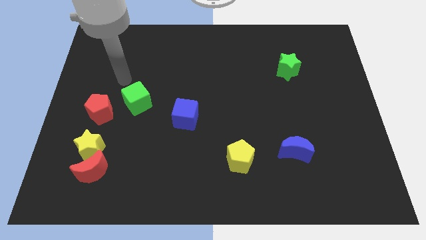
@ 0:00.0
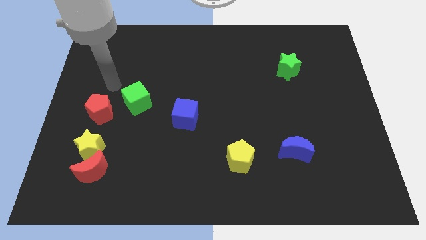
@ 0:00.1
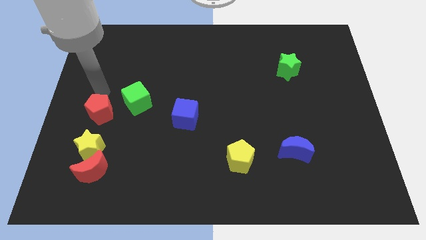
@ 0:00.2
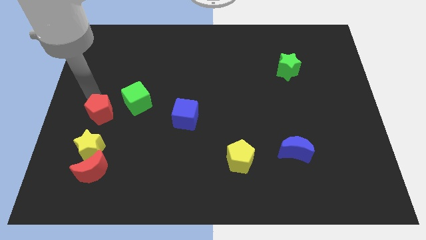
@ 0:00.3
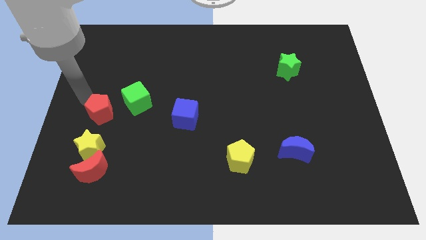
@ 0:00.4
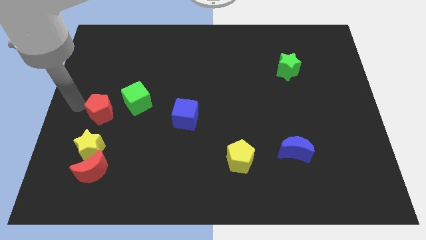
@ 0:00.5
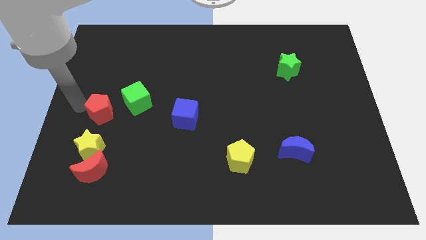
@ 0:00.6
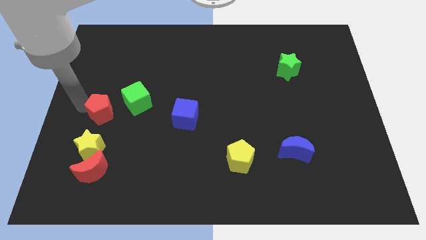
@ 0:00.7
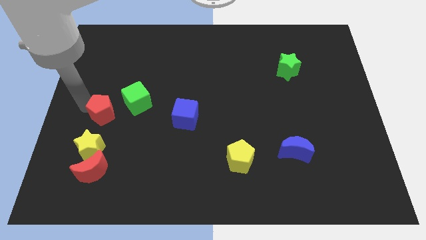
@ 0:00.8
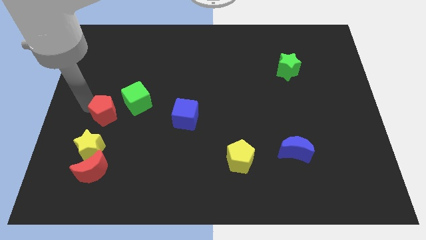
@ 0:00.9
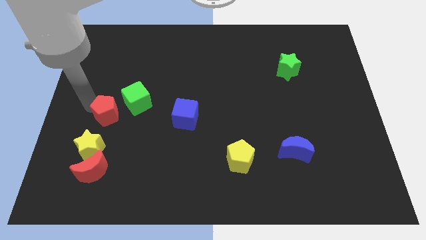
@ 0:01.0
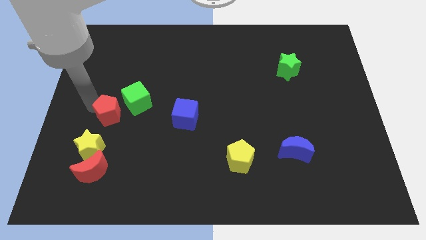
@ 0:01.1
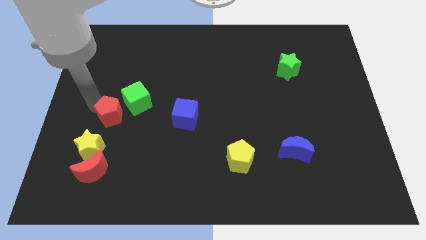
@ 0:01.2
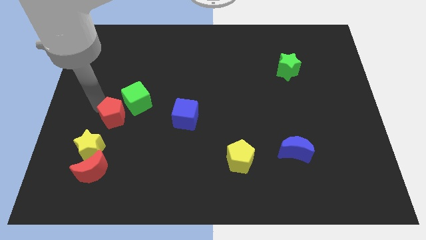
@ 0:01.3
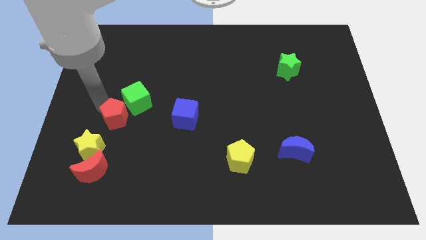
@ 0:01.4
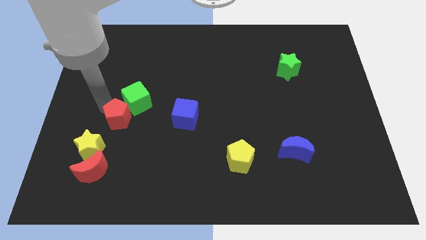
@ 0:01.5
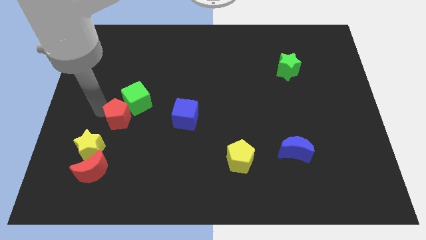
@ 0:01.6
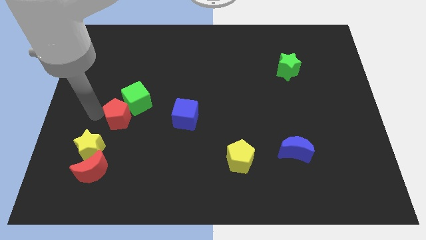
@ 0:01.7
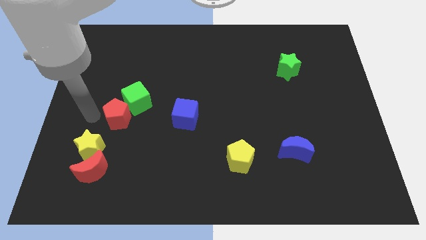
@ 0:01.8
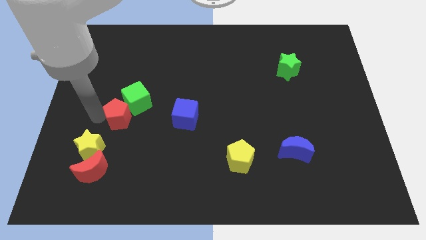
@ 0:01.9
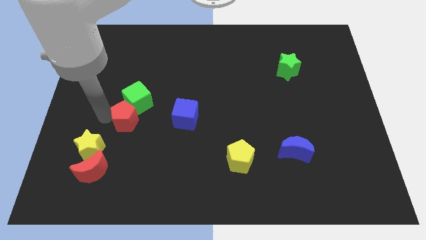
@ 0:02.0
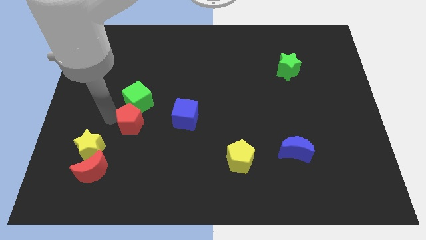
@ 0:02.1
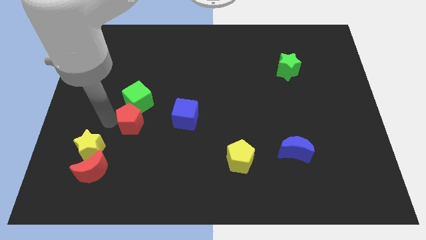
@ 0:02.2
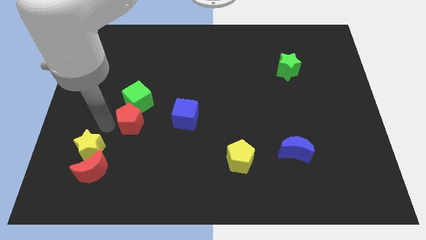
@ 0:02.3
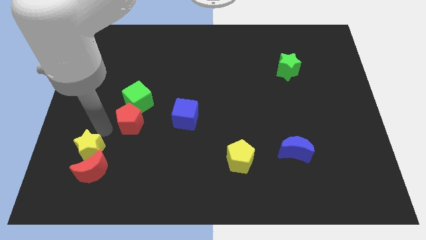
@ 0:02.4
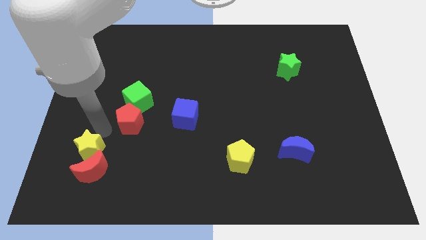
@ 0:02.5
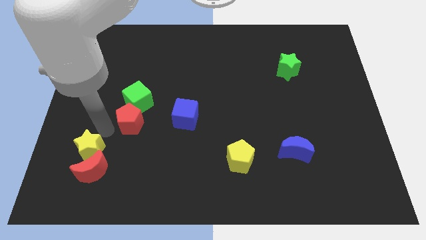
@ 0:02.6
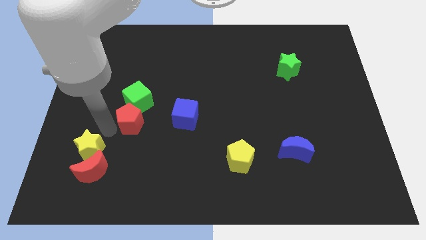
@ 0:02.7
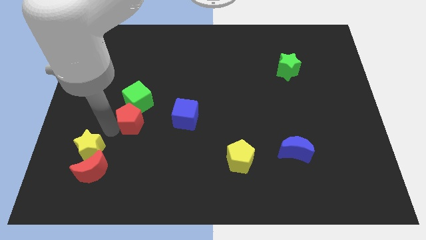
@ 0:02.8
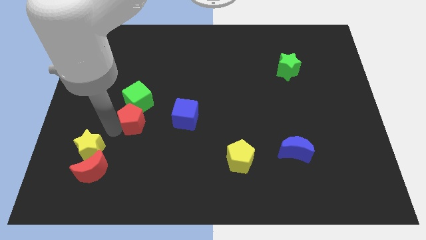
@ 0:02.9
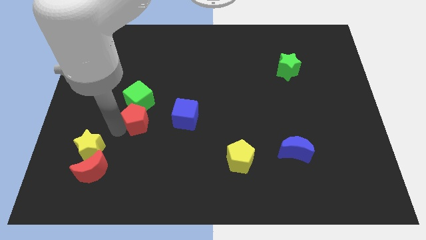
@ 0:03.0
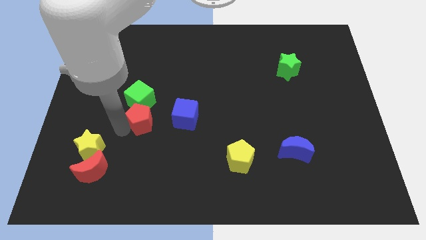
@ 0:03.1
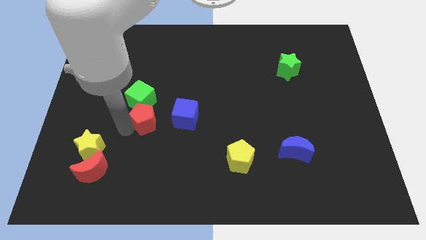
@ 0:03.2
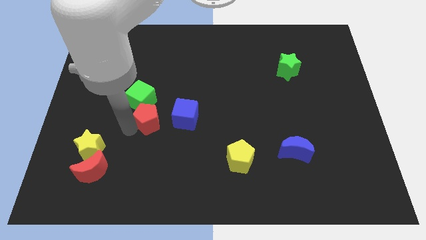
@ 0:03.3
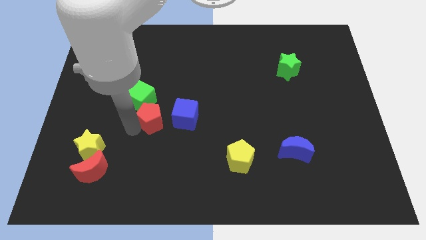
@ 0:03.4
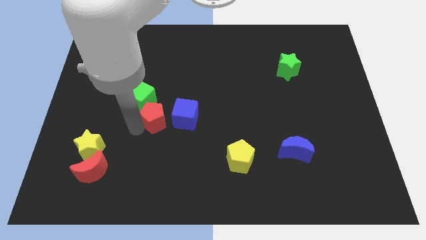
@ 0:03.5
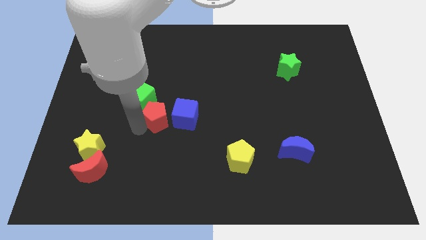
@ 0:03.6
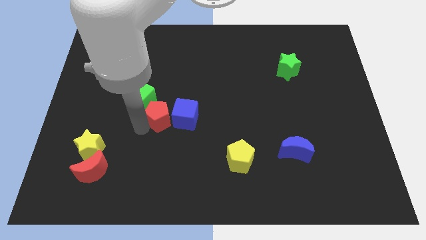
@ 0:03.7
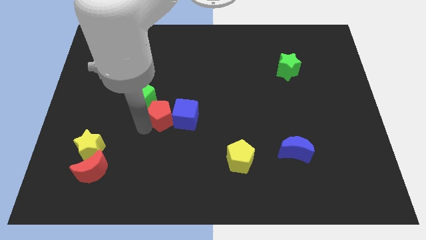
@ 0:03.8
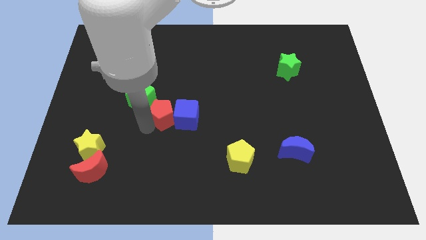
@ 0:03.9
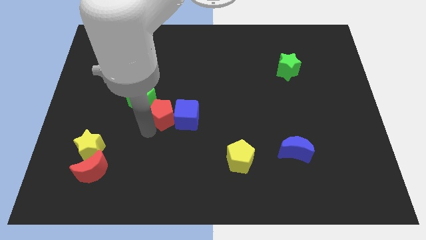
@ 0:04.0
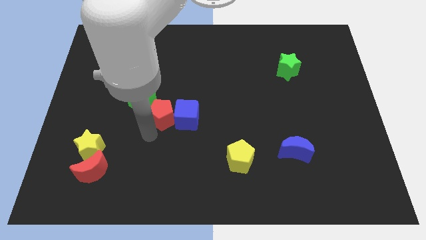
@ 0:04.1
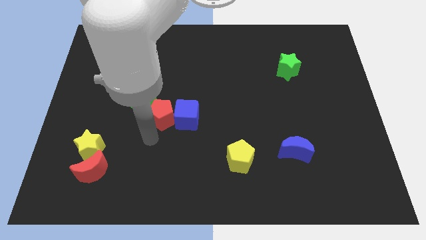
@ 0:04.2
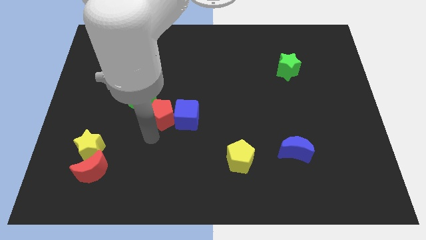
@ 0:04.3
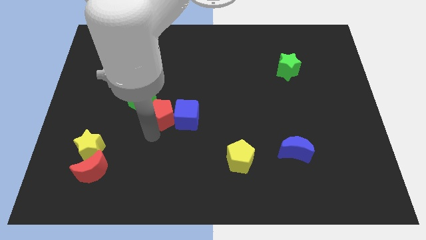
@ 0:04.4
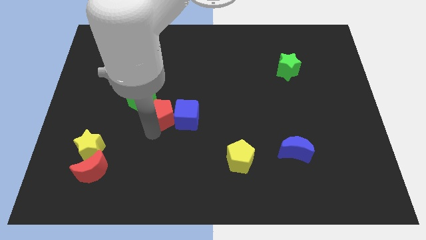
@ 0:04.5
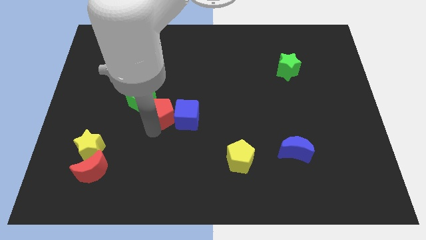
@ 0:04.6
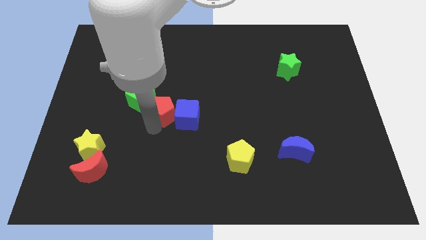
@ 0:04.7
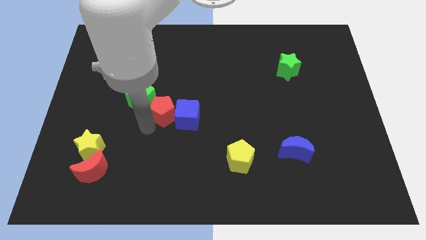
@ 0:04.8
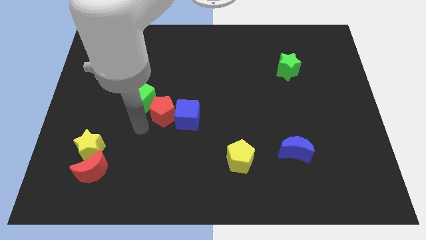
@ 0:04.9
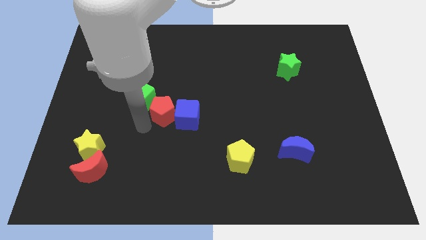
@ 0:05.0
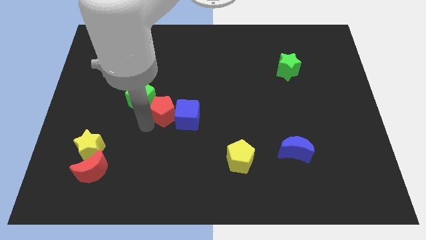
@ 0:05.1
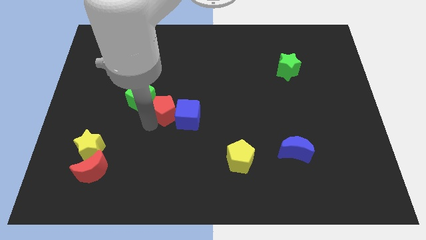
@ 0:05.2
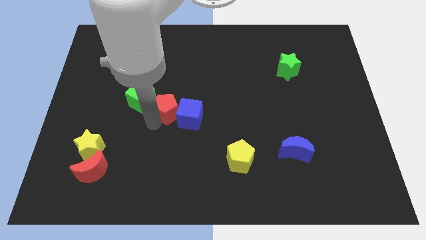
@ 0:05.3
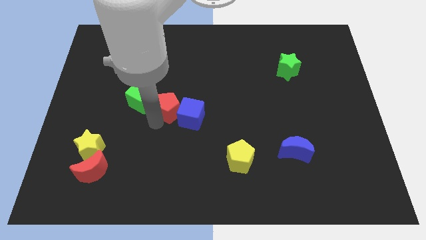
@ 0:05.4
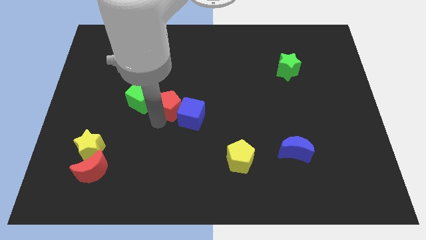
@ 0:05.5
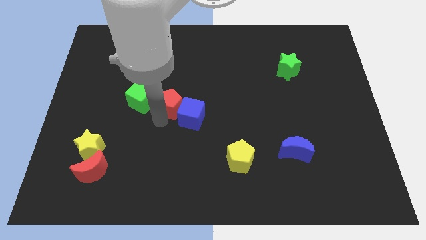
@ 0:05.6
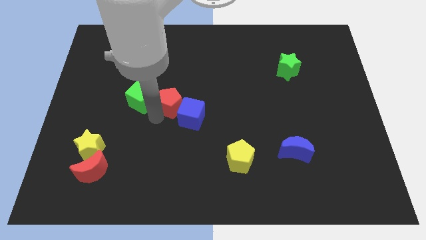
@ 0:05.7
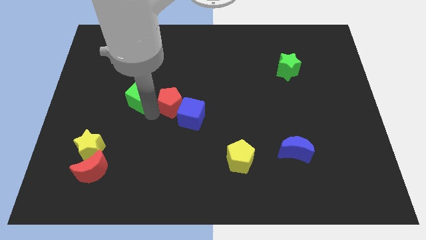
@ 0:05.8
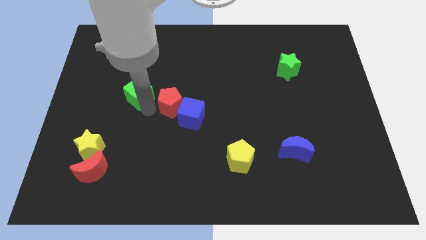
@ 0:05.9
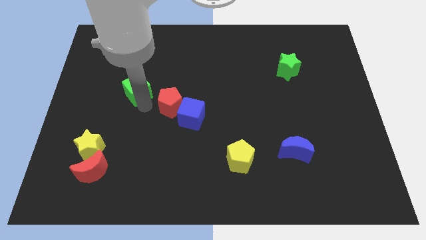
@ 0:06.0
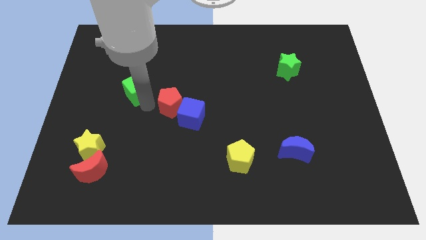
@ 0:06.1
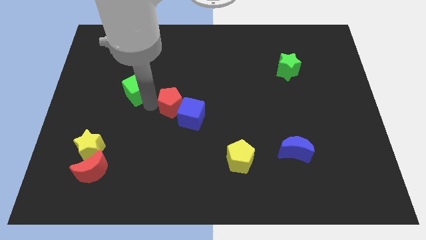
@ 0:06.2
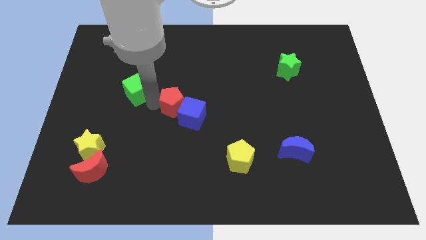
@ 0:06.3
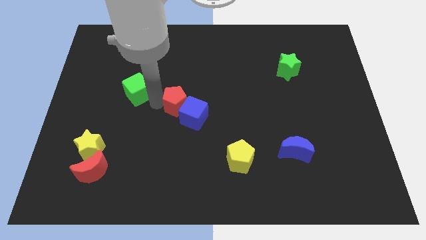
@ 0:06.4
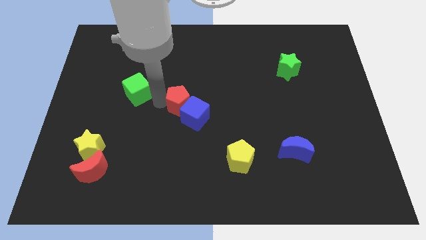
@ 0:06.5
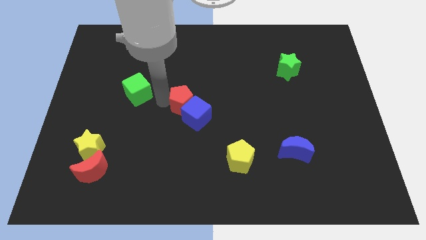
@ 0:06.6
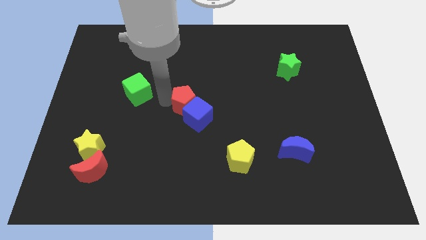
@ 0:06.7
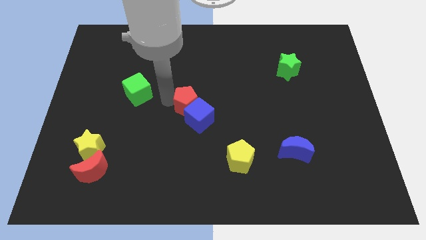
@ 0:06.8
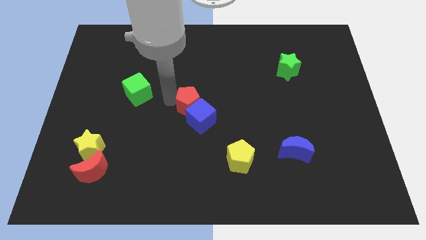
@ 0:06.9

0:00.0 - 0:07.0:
push the red pentagon right

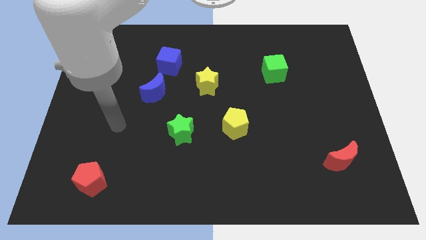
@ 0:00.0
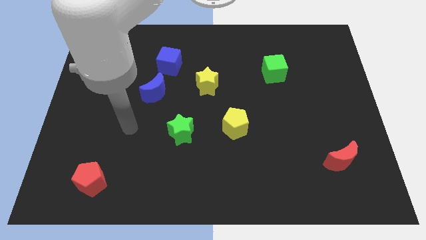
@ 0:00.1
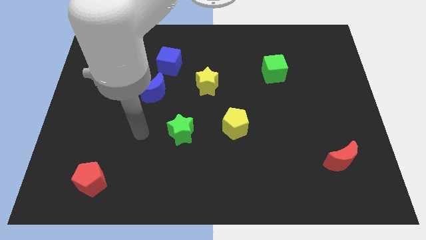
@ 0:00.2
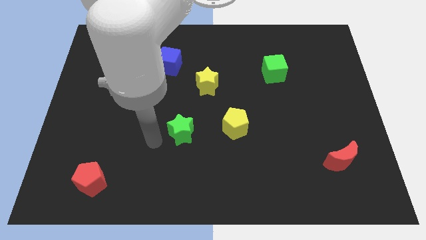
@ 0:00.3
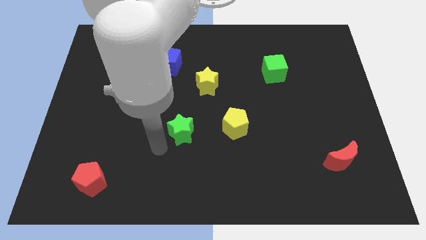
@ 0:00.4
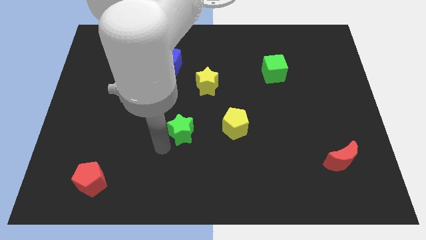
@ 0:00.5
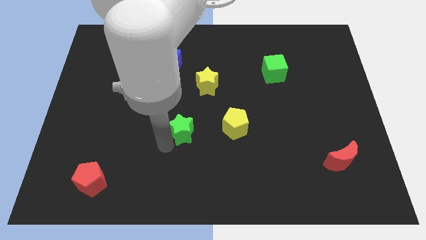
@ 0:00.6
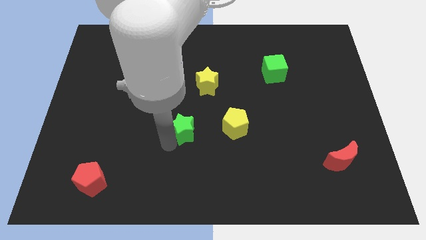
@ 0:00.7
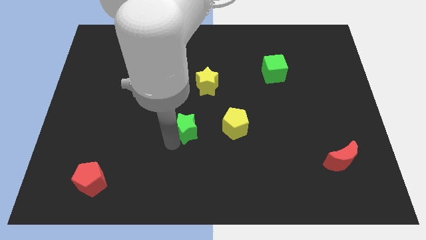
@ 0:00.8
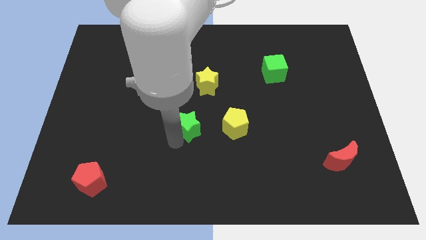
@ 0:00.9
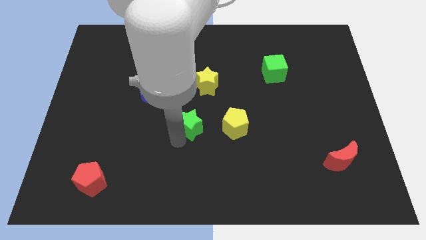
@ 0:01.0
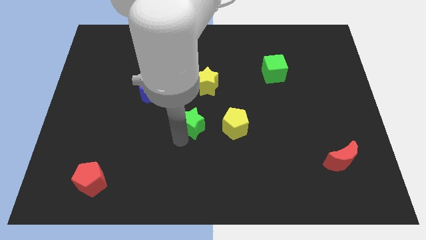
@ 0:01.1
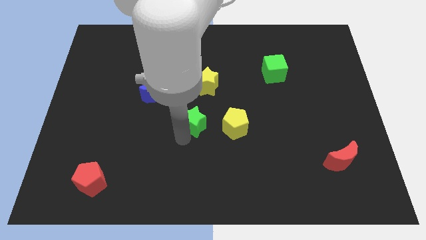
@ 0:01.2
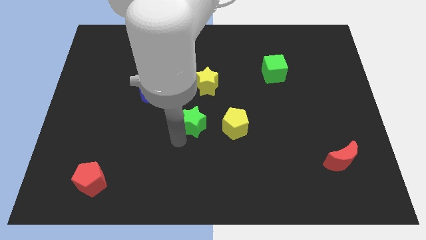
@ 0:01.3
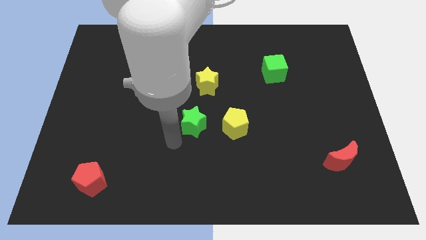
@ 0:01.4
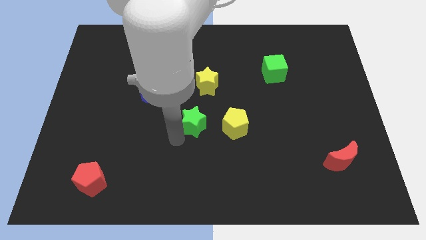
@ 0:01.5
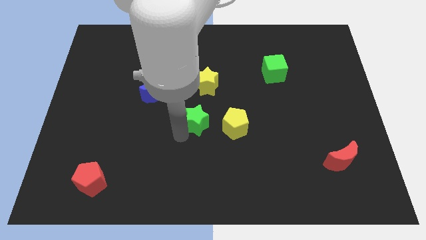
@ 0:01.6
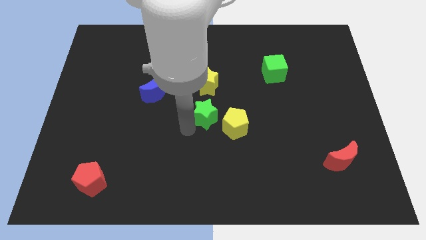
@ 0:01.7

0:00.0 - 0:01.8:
slightly slide the green star diagonally up and to the right
